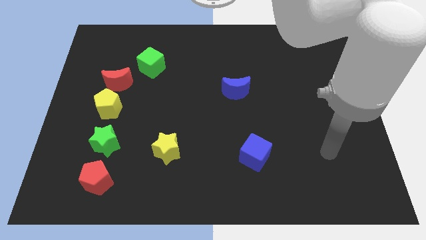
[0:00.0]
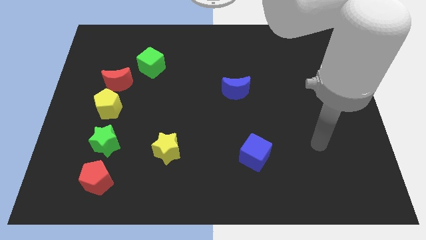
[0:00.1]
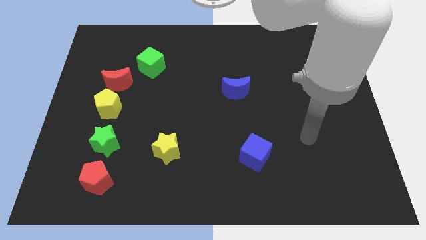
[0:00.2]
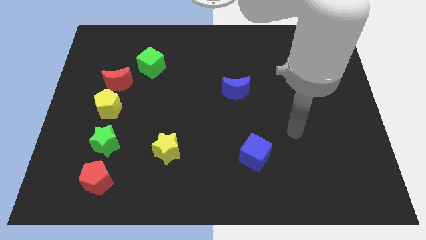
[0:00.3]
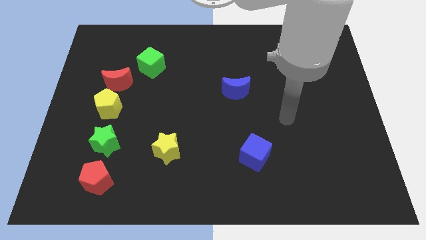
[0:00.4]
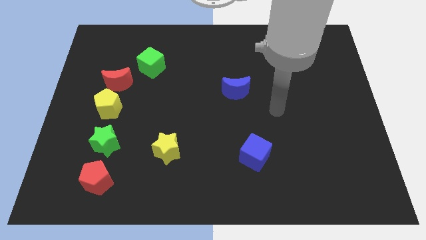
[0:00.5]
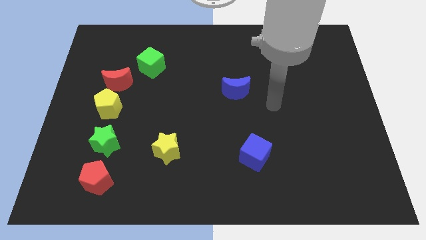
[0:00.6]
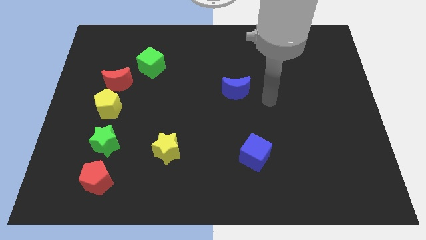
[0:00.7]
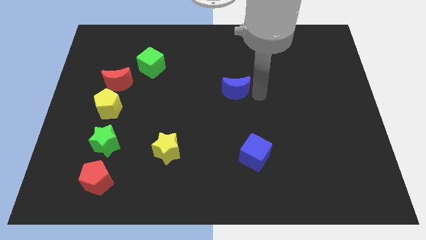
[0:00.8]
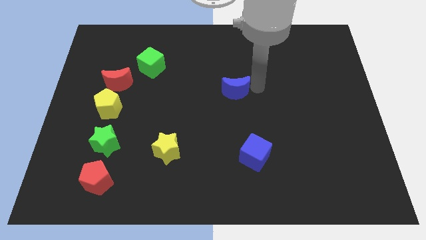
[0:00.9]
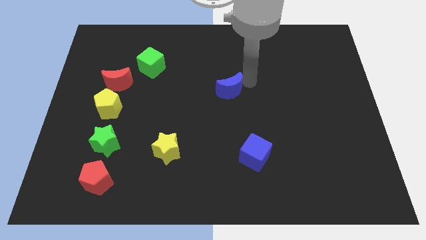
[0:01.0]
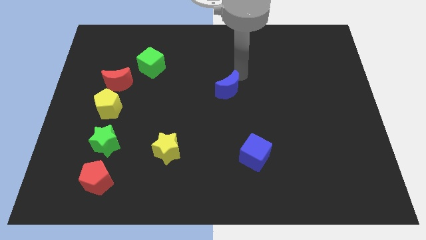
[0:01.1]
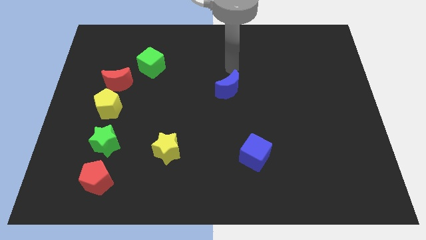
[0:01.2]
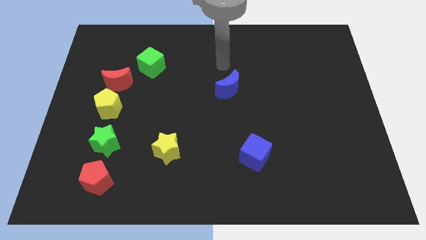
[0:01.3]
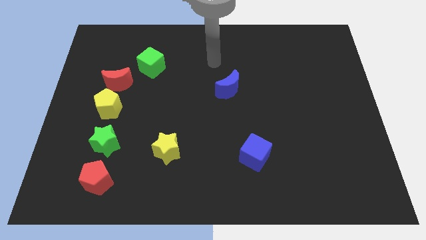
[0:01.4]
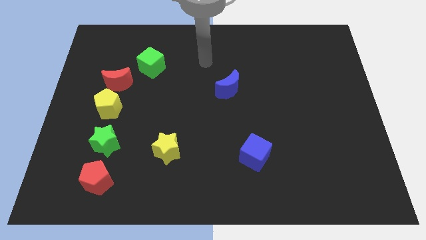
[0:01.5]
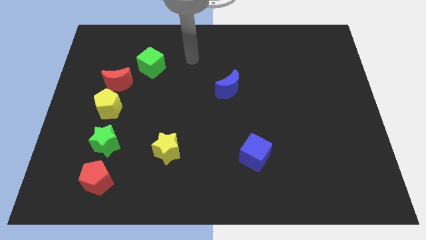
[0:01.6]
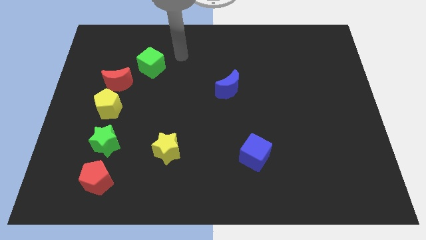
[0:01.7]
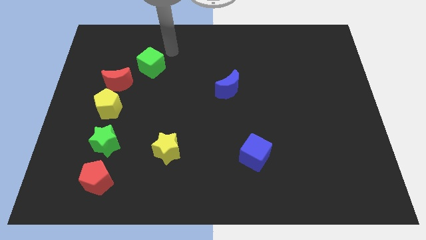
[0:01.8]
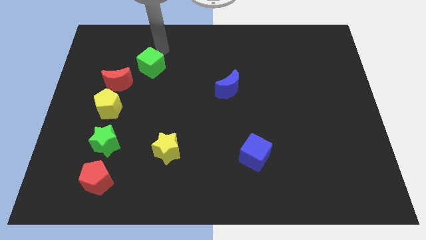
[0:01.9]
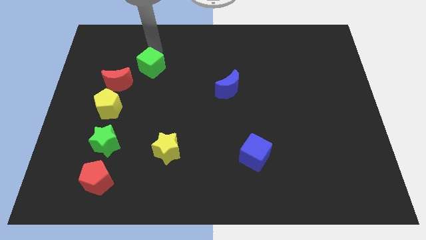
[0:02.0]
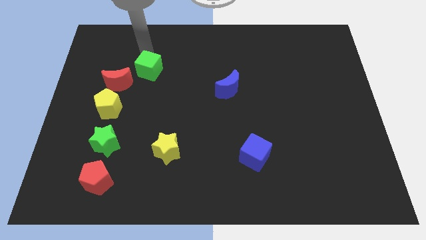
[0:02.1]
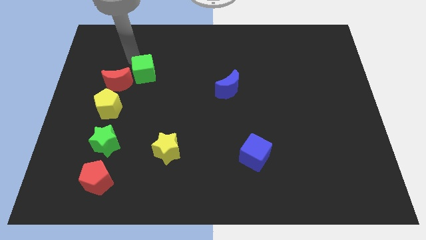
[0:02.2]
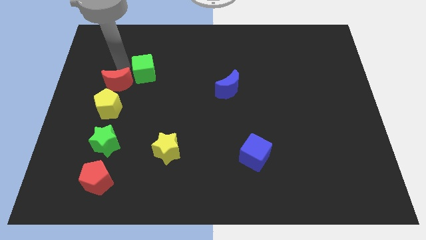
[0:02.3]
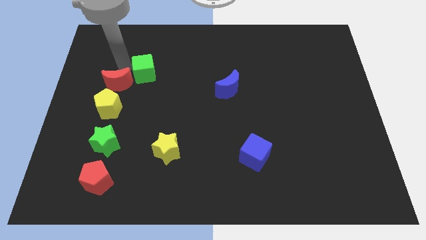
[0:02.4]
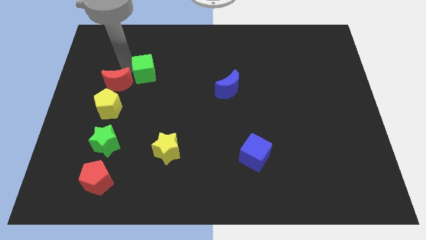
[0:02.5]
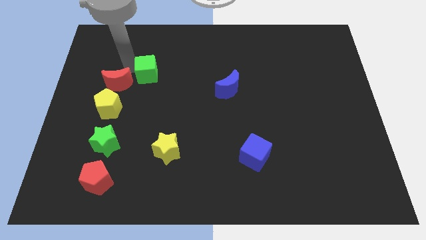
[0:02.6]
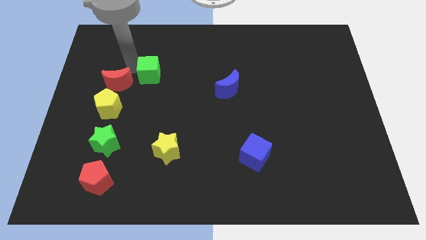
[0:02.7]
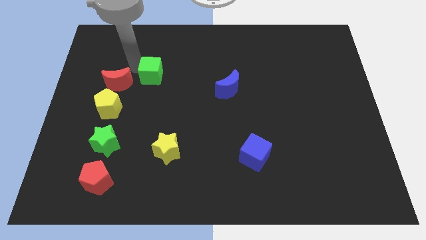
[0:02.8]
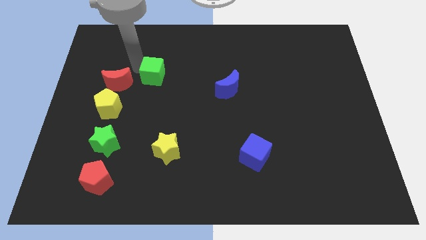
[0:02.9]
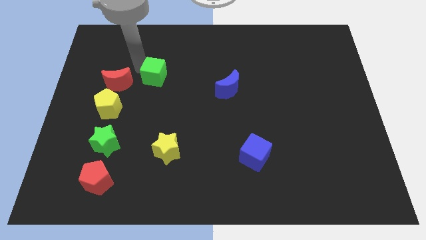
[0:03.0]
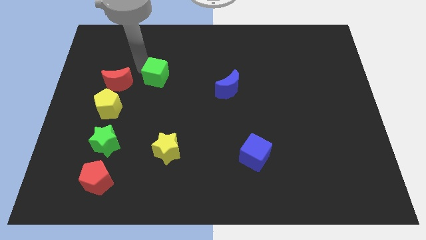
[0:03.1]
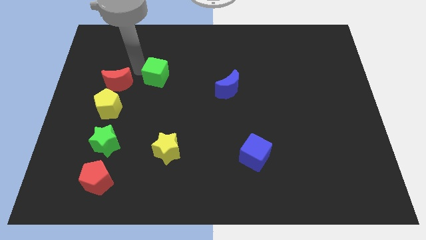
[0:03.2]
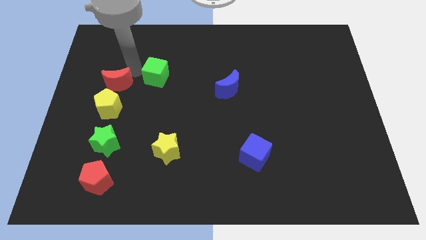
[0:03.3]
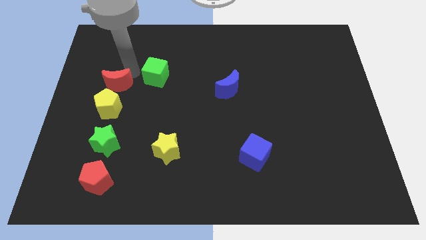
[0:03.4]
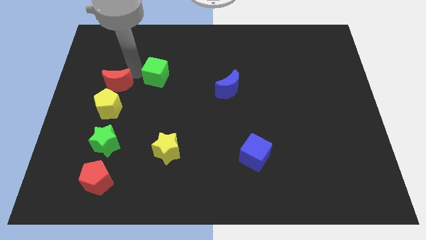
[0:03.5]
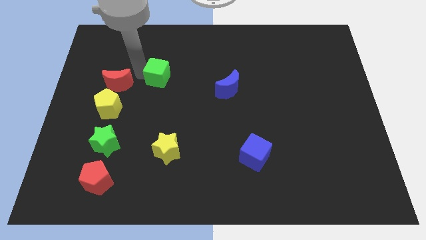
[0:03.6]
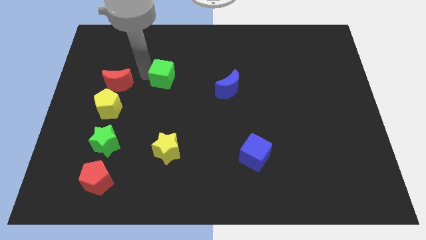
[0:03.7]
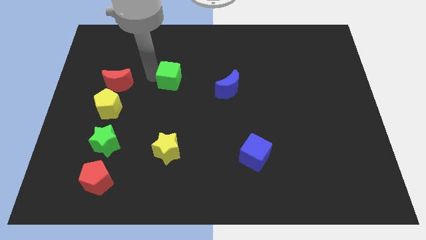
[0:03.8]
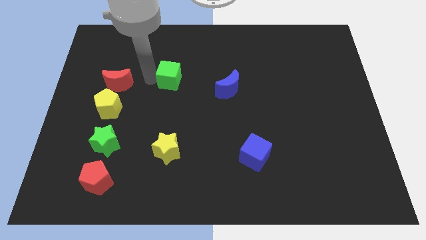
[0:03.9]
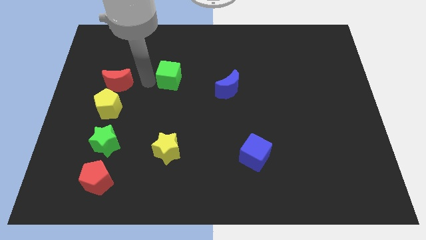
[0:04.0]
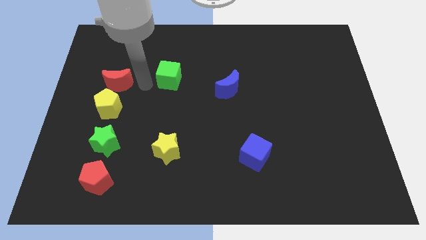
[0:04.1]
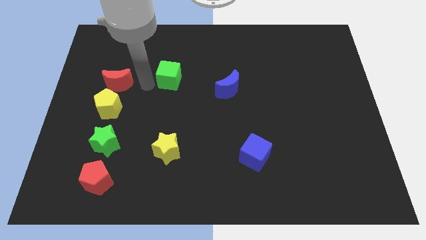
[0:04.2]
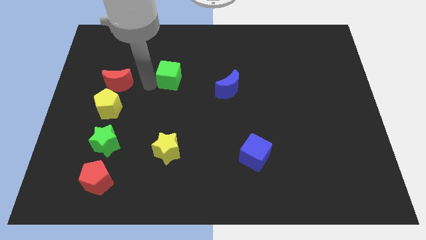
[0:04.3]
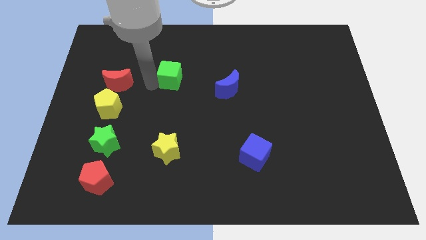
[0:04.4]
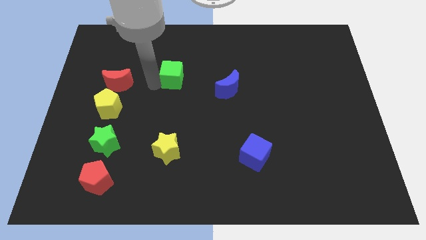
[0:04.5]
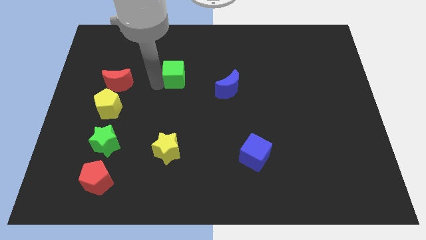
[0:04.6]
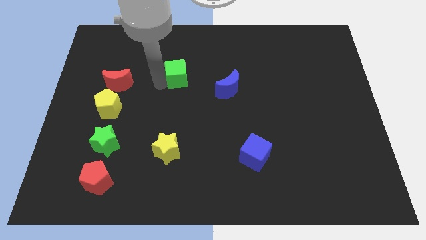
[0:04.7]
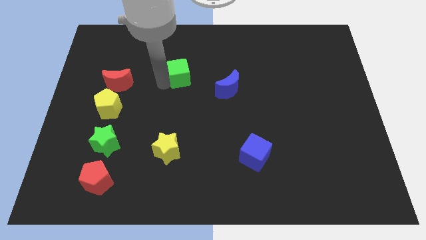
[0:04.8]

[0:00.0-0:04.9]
move the green cube somewhat right

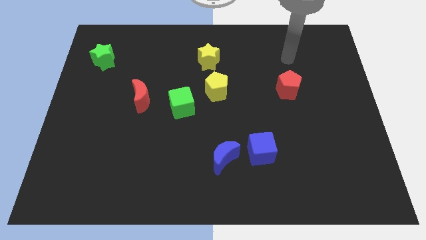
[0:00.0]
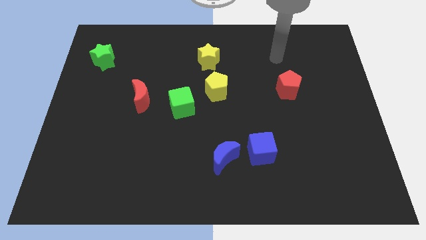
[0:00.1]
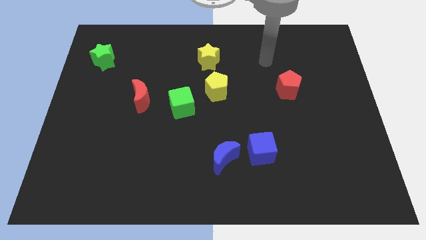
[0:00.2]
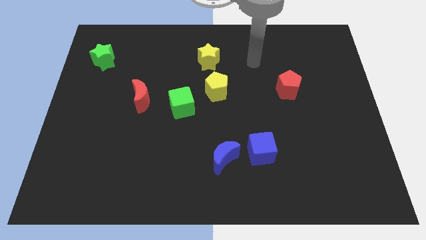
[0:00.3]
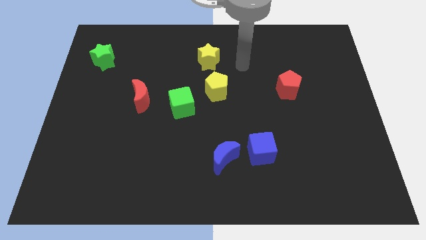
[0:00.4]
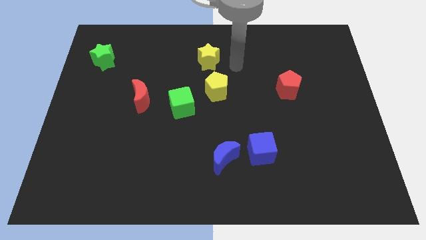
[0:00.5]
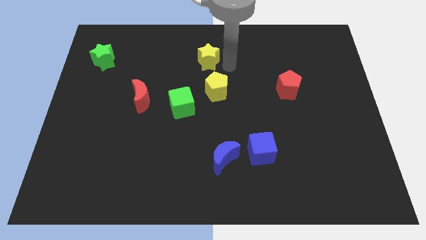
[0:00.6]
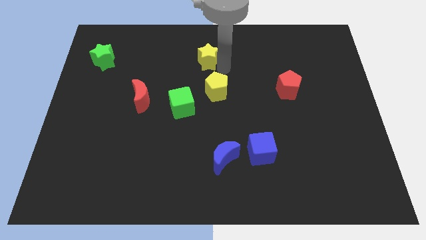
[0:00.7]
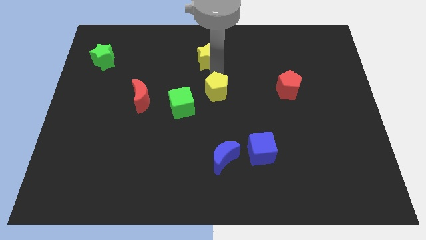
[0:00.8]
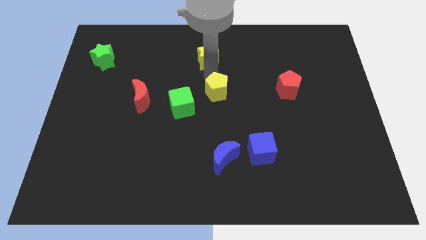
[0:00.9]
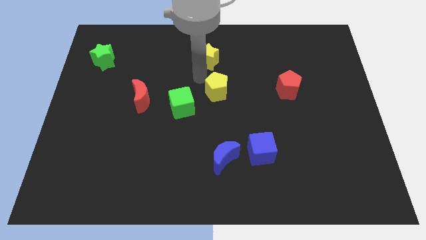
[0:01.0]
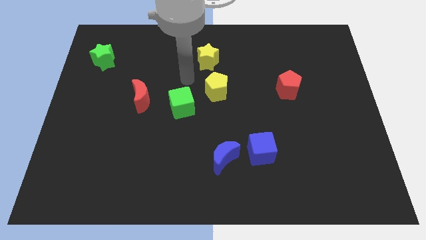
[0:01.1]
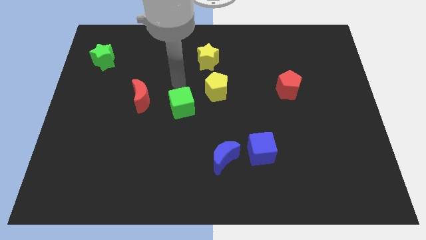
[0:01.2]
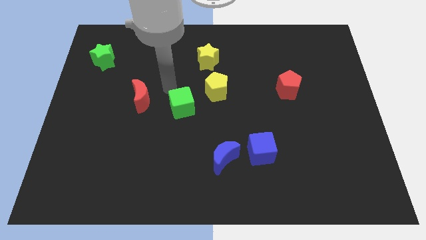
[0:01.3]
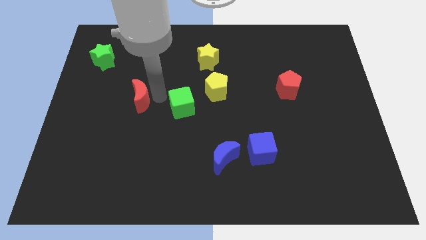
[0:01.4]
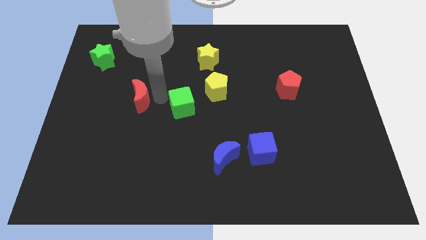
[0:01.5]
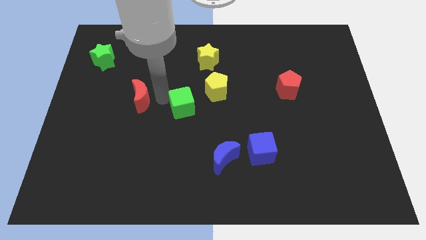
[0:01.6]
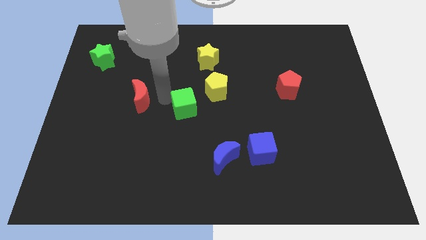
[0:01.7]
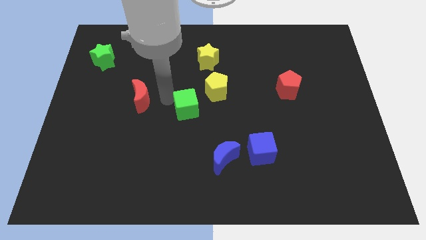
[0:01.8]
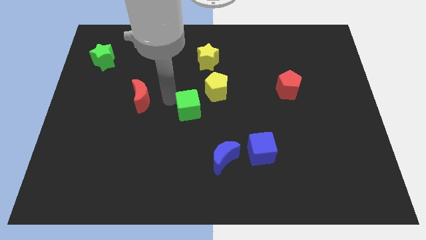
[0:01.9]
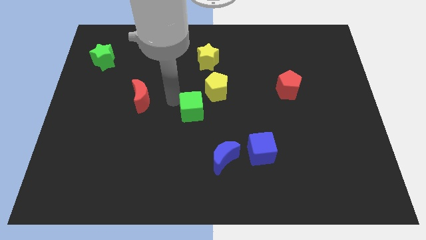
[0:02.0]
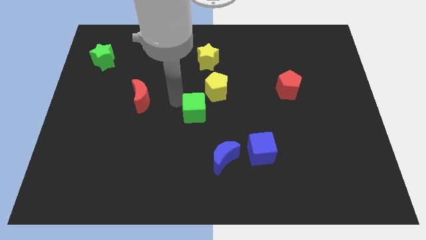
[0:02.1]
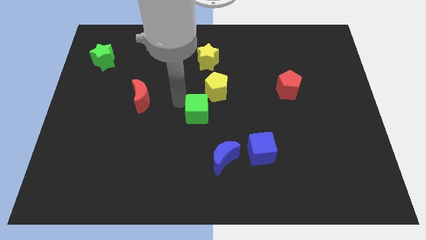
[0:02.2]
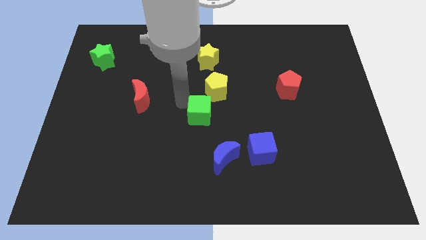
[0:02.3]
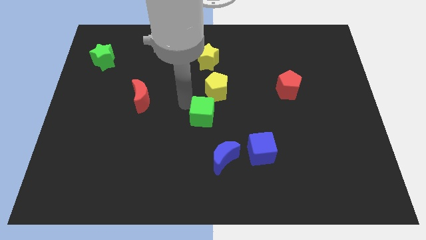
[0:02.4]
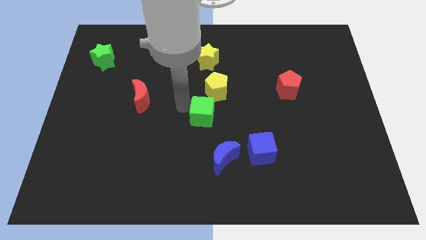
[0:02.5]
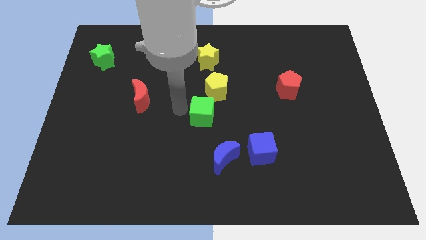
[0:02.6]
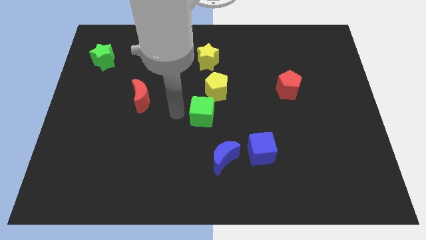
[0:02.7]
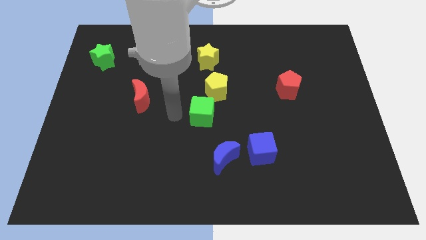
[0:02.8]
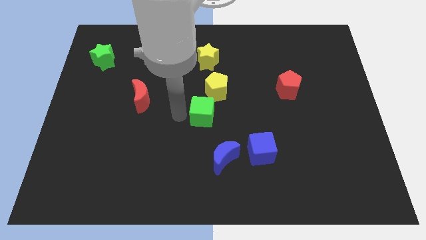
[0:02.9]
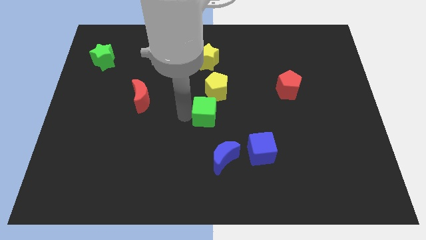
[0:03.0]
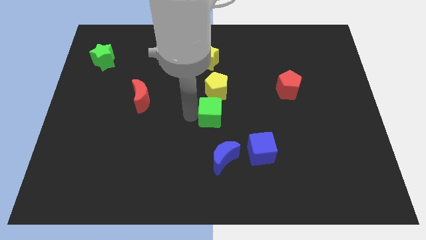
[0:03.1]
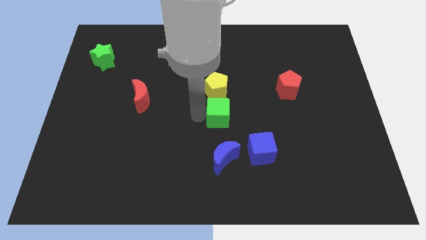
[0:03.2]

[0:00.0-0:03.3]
push the green cube to the right a little bit

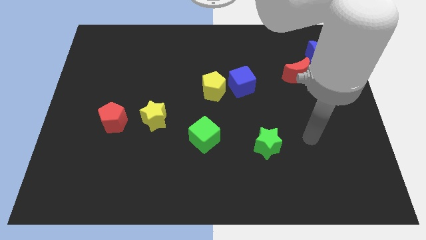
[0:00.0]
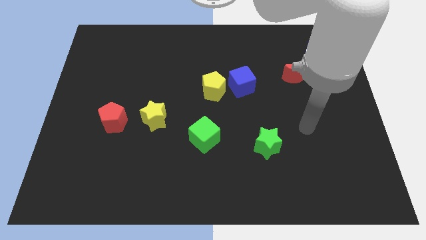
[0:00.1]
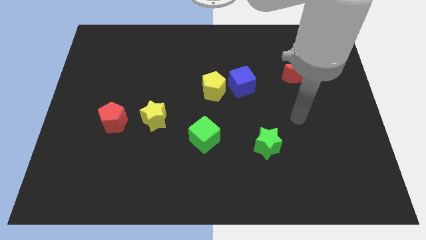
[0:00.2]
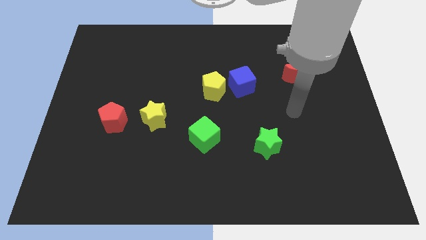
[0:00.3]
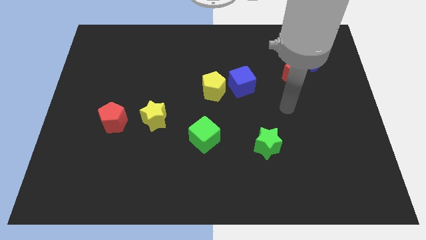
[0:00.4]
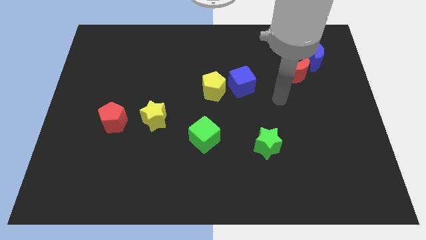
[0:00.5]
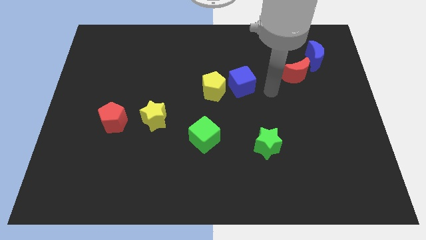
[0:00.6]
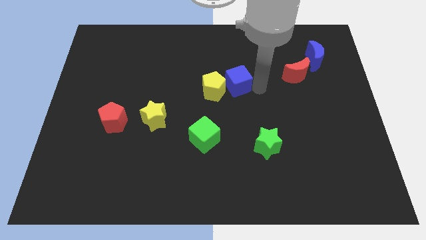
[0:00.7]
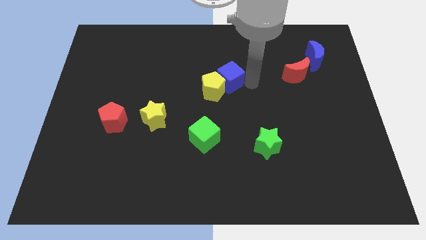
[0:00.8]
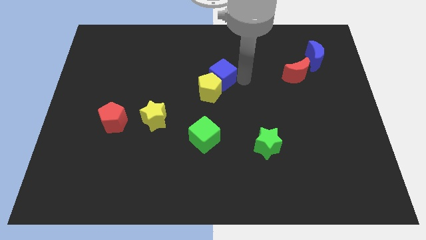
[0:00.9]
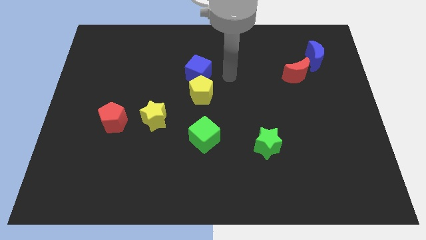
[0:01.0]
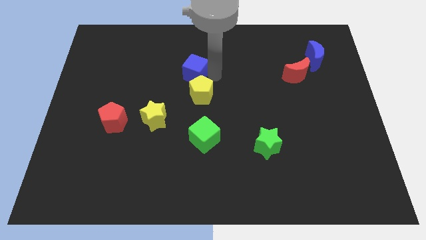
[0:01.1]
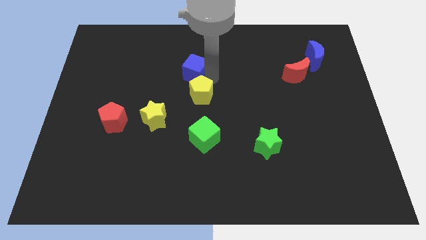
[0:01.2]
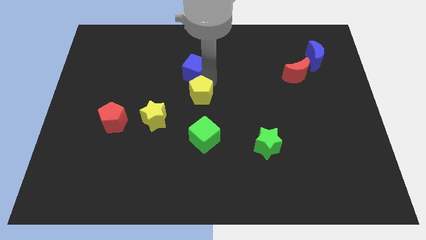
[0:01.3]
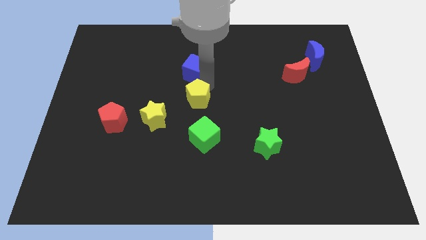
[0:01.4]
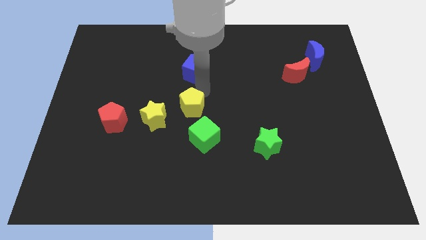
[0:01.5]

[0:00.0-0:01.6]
slide the yellow pentagon somewhat downwards and left
